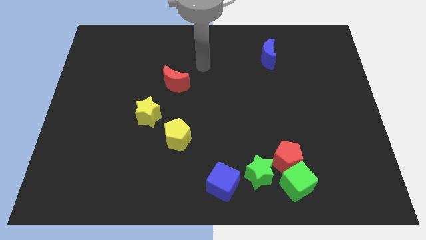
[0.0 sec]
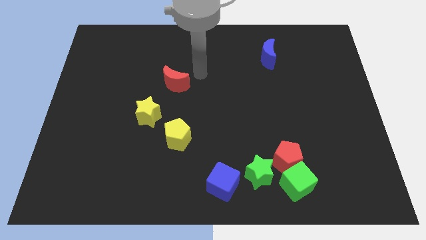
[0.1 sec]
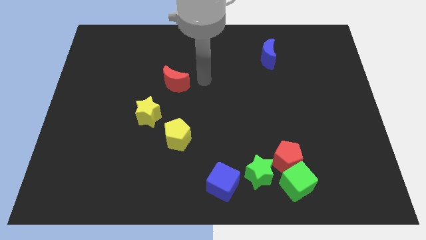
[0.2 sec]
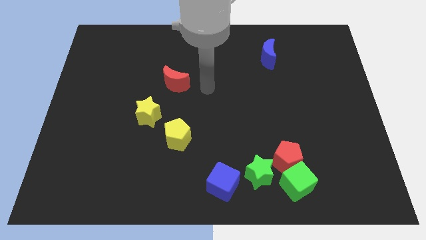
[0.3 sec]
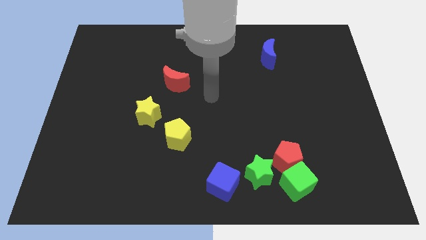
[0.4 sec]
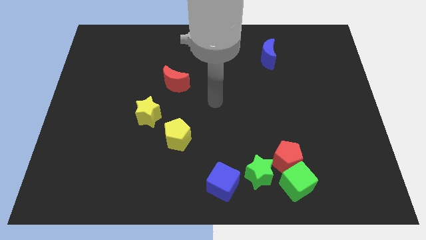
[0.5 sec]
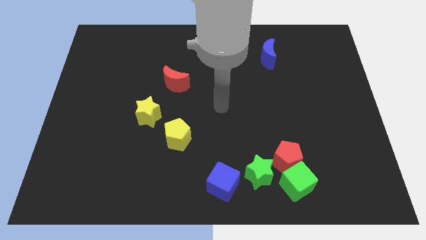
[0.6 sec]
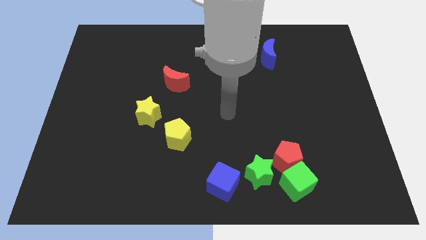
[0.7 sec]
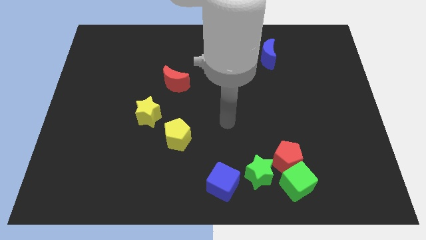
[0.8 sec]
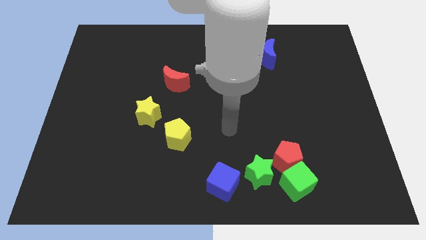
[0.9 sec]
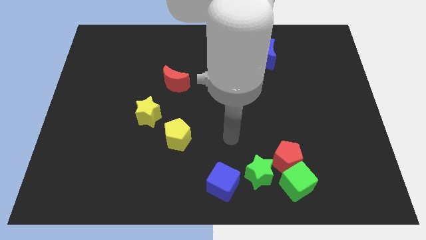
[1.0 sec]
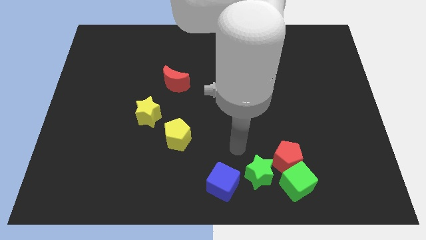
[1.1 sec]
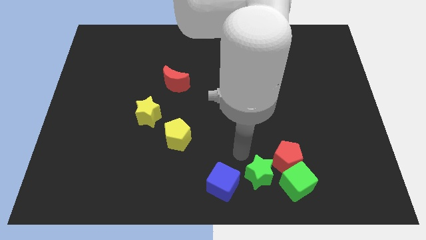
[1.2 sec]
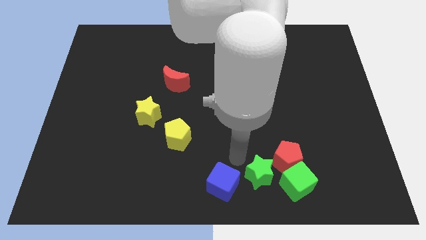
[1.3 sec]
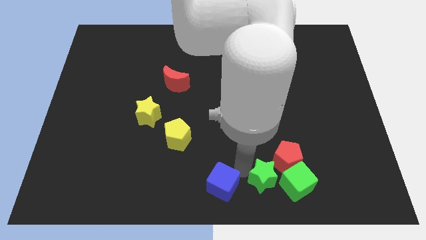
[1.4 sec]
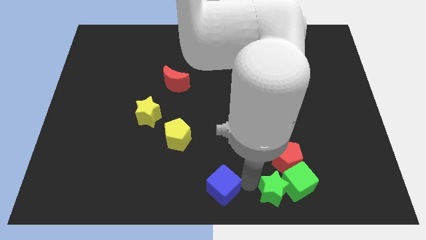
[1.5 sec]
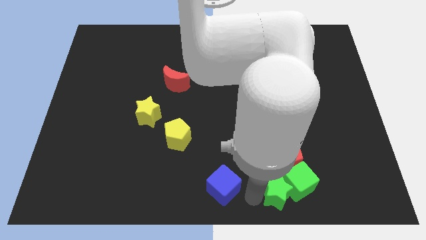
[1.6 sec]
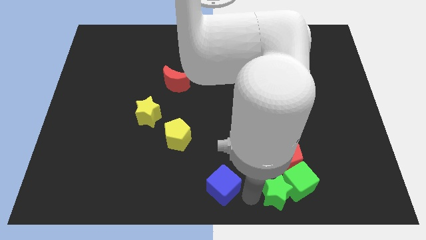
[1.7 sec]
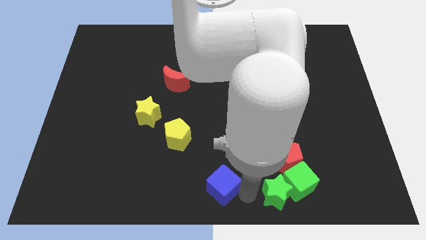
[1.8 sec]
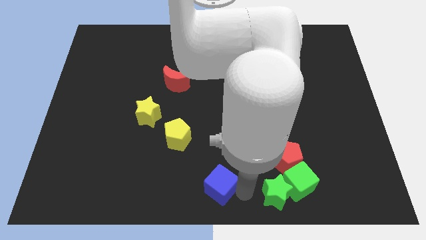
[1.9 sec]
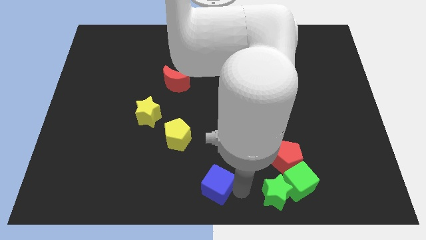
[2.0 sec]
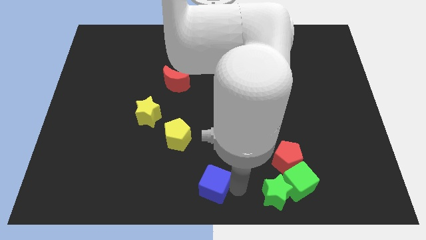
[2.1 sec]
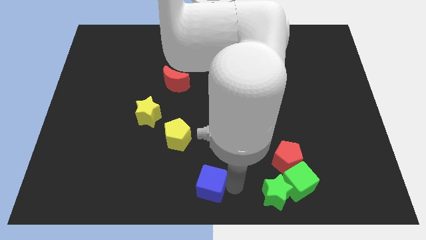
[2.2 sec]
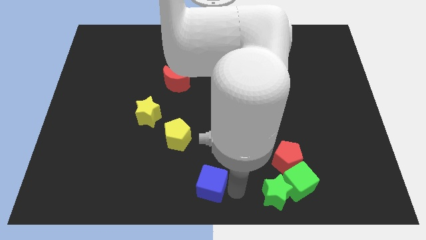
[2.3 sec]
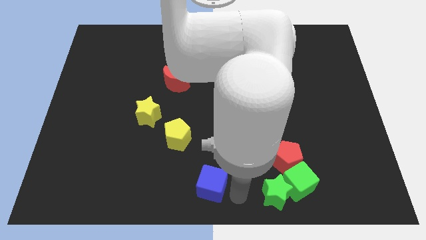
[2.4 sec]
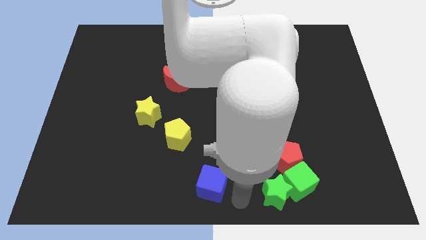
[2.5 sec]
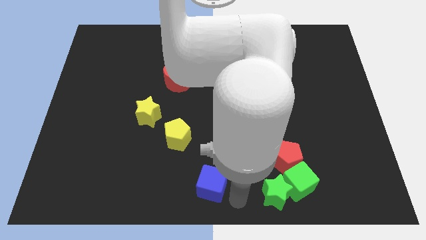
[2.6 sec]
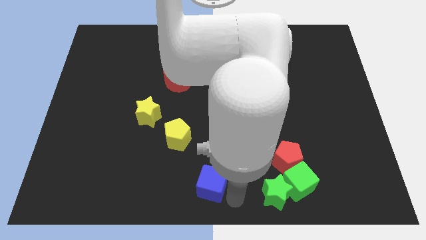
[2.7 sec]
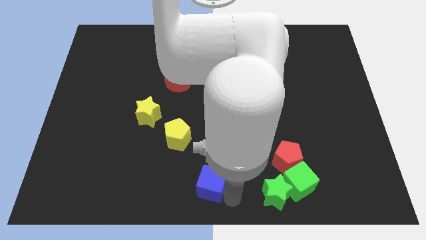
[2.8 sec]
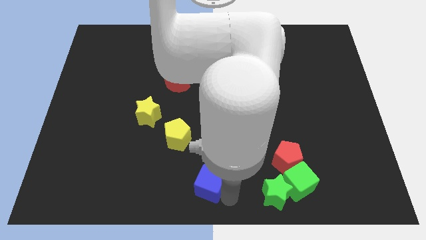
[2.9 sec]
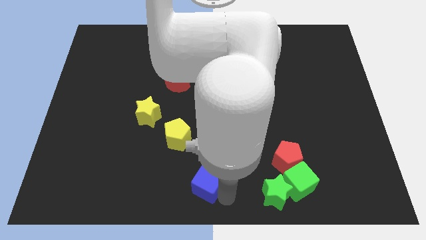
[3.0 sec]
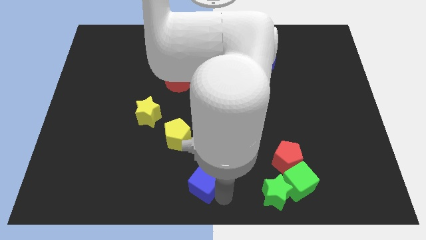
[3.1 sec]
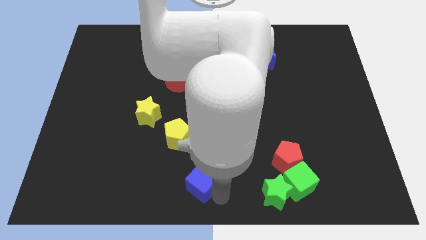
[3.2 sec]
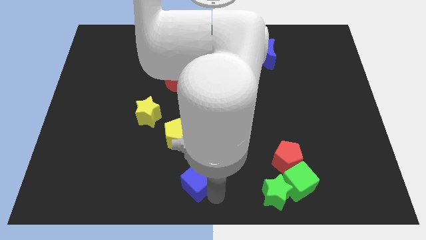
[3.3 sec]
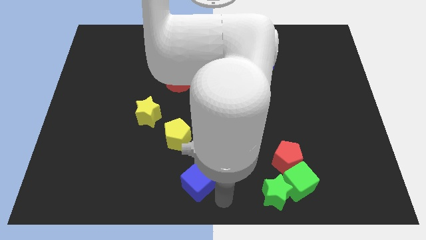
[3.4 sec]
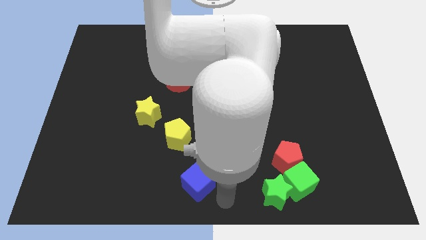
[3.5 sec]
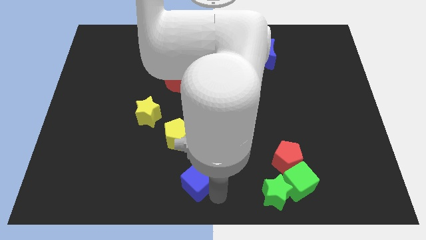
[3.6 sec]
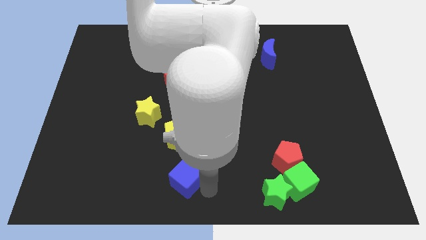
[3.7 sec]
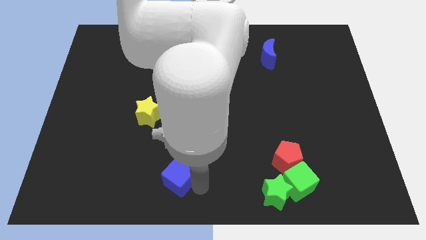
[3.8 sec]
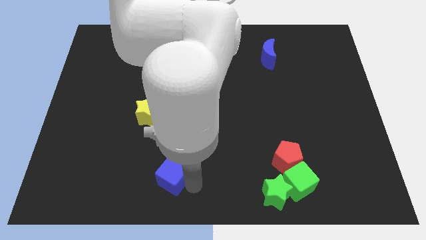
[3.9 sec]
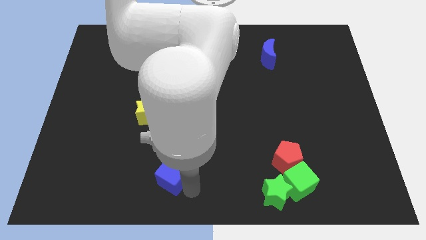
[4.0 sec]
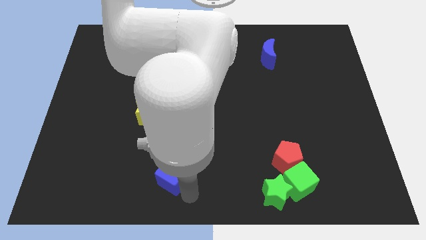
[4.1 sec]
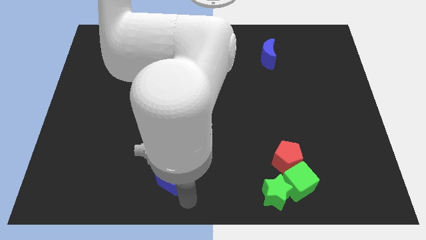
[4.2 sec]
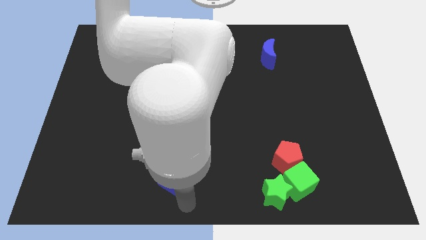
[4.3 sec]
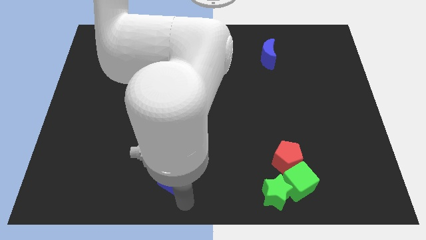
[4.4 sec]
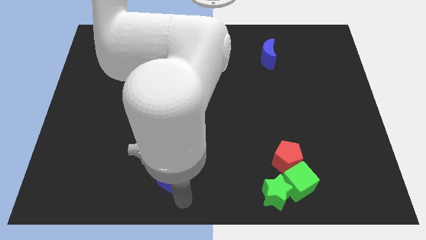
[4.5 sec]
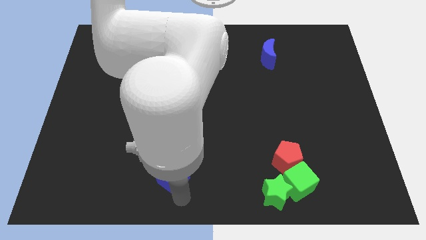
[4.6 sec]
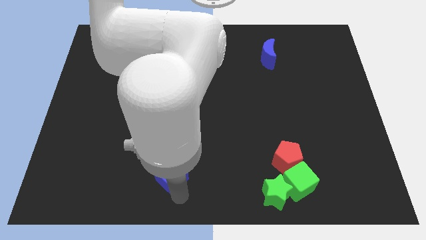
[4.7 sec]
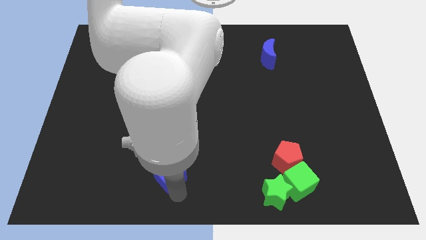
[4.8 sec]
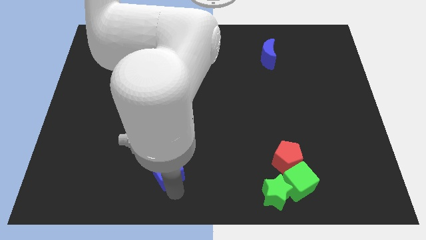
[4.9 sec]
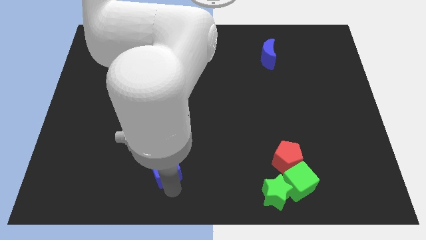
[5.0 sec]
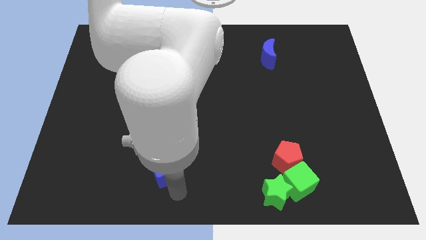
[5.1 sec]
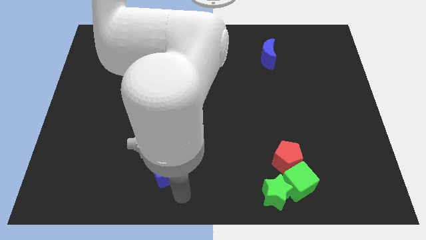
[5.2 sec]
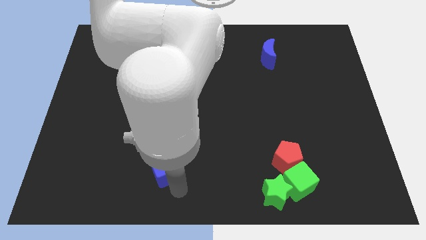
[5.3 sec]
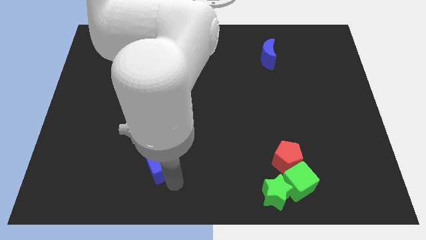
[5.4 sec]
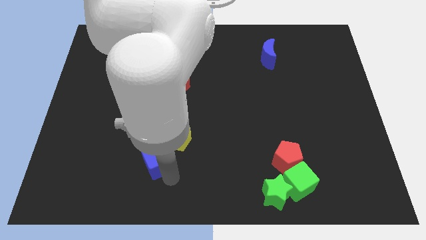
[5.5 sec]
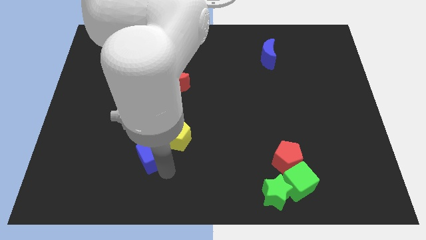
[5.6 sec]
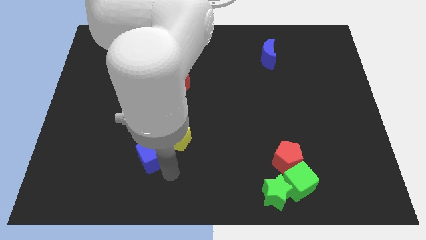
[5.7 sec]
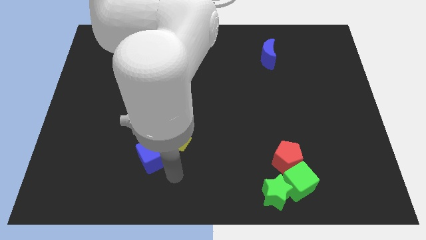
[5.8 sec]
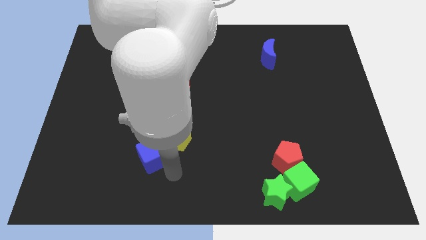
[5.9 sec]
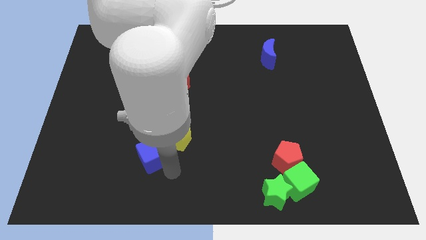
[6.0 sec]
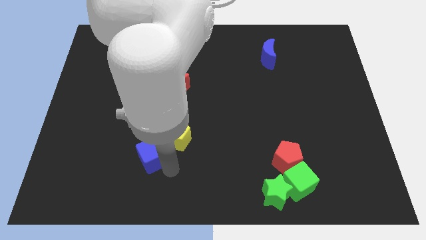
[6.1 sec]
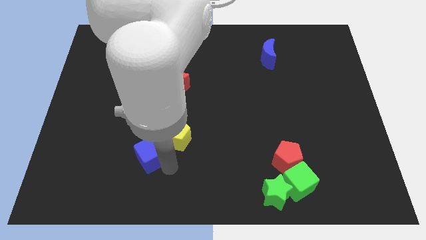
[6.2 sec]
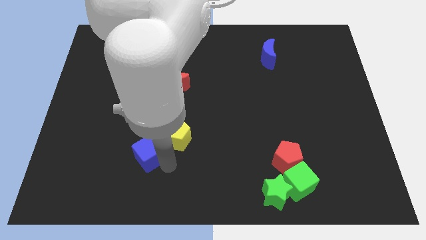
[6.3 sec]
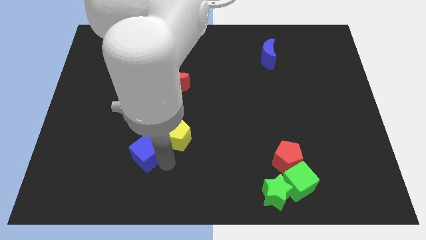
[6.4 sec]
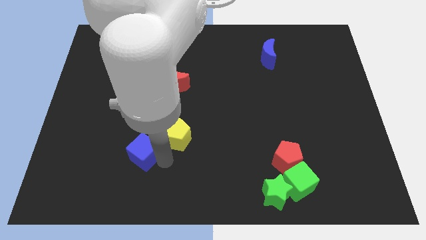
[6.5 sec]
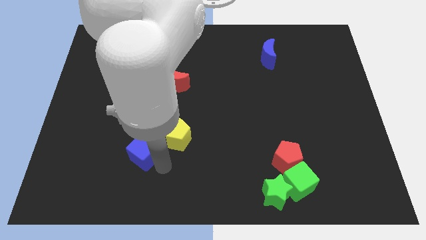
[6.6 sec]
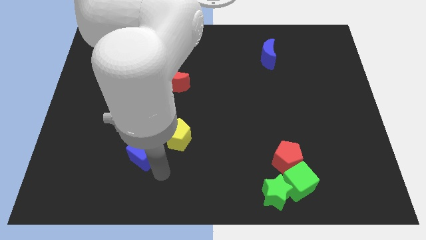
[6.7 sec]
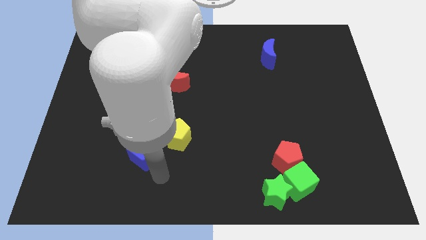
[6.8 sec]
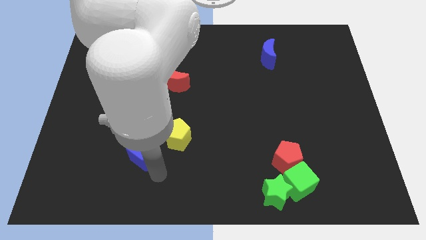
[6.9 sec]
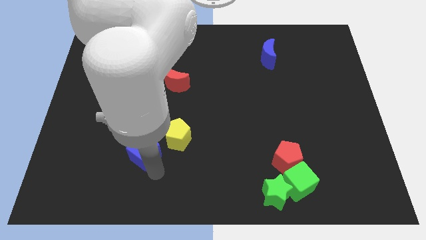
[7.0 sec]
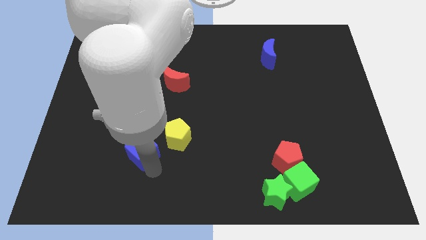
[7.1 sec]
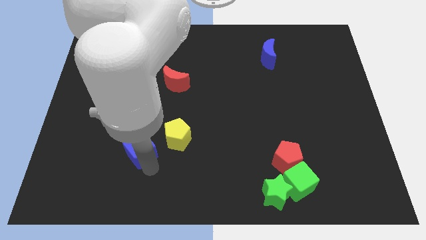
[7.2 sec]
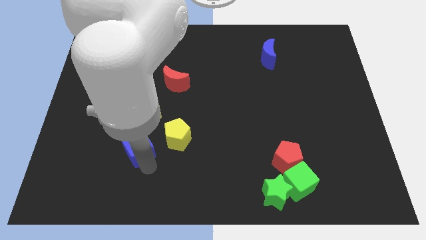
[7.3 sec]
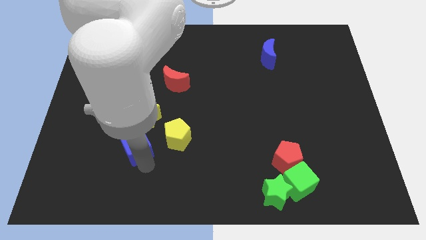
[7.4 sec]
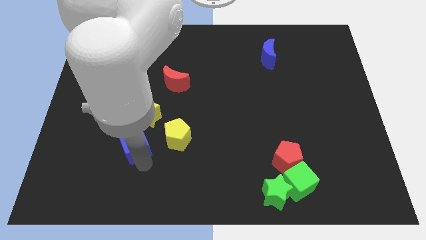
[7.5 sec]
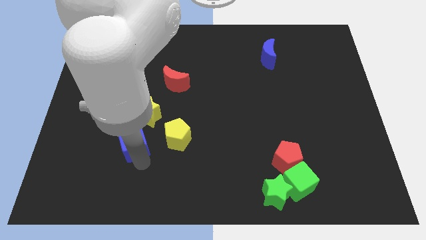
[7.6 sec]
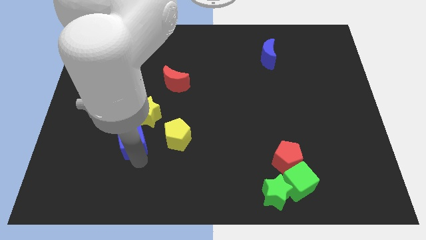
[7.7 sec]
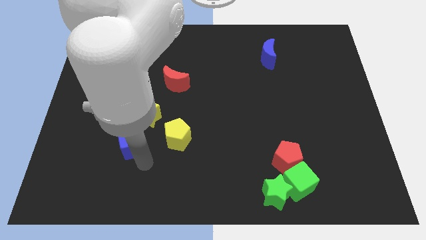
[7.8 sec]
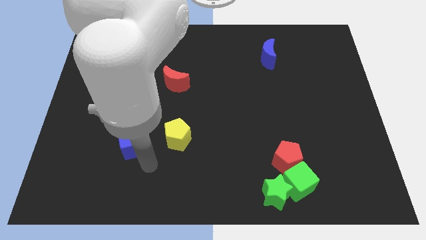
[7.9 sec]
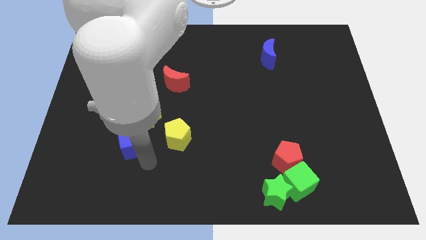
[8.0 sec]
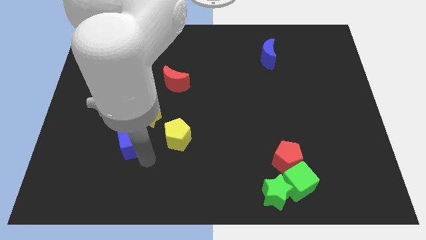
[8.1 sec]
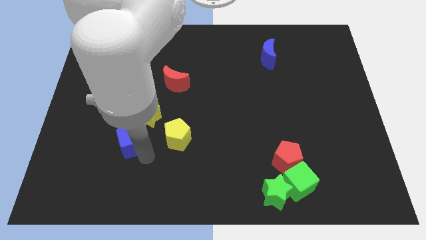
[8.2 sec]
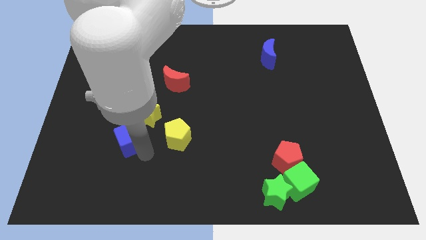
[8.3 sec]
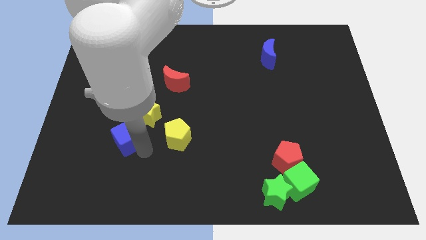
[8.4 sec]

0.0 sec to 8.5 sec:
push the blue cube upwards and then to the left
